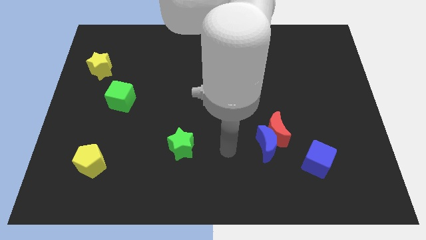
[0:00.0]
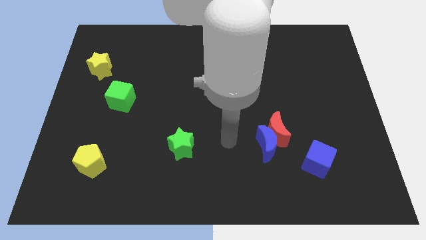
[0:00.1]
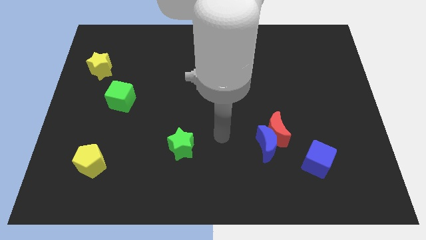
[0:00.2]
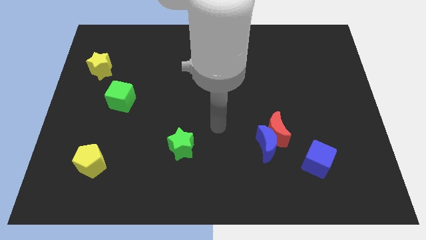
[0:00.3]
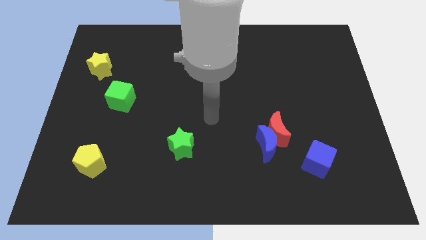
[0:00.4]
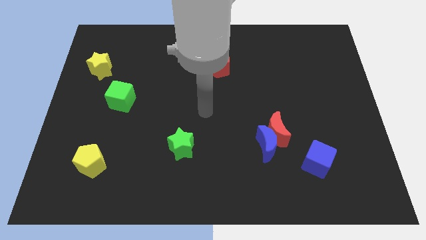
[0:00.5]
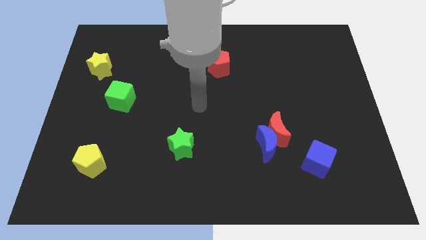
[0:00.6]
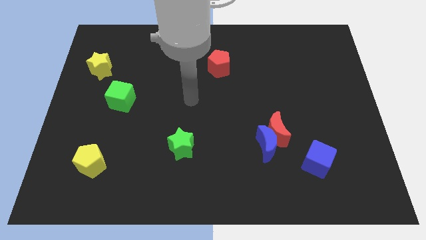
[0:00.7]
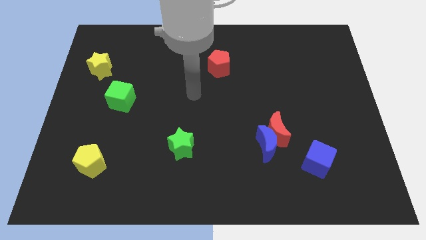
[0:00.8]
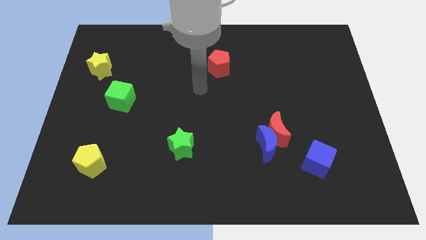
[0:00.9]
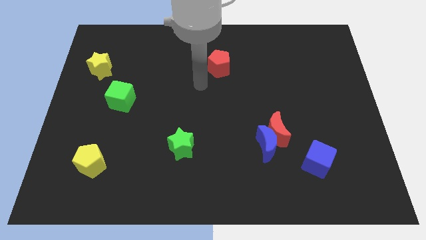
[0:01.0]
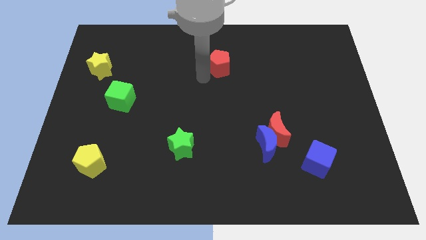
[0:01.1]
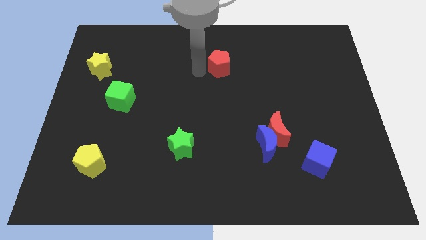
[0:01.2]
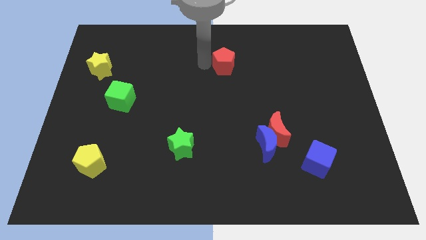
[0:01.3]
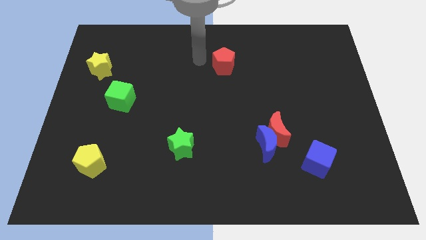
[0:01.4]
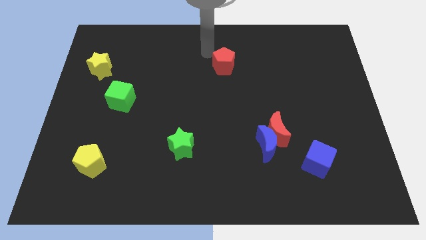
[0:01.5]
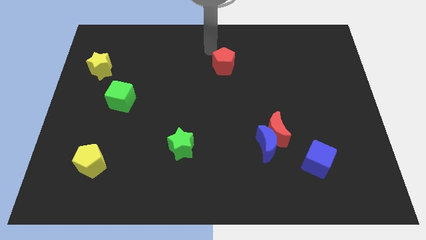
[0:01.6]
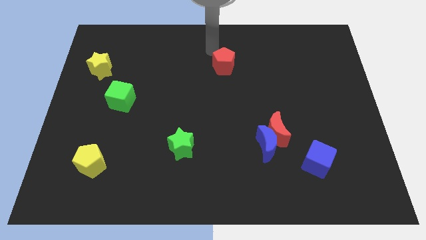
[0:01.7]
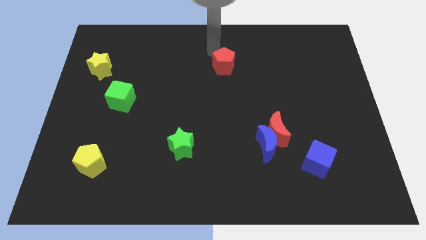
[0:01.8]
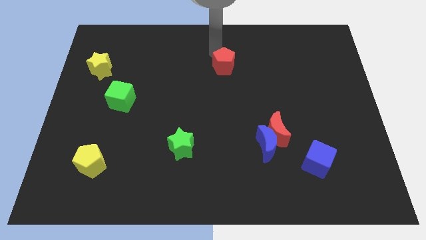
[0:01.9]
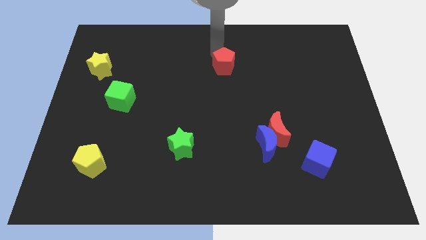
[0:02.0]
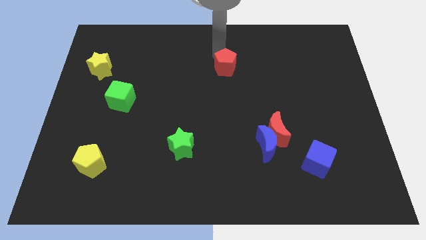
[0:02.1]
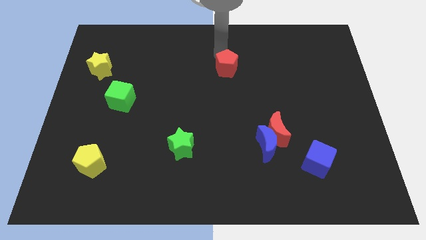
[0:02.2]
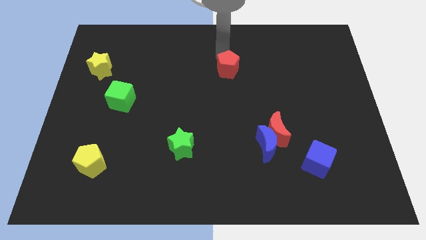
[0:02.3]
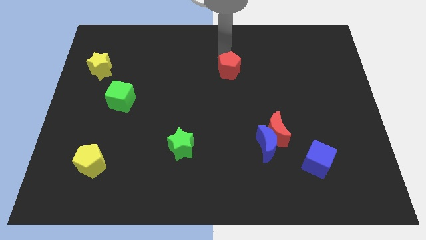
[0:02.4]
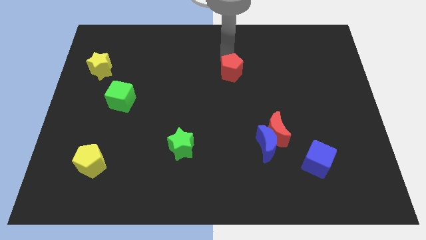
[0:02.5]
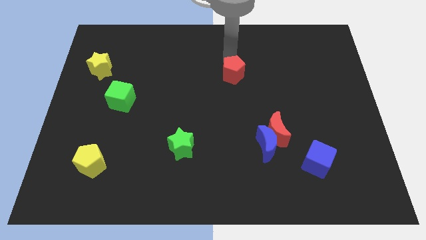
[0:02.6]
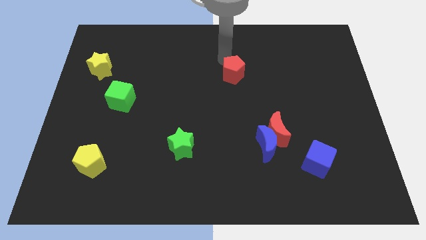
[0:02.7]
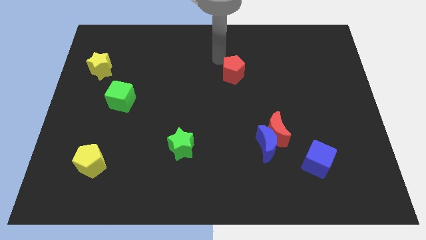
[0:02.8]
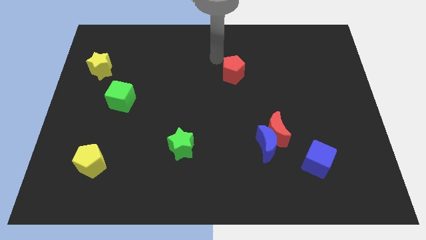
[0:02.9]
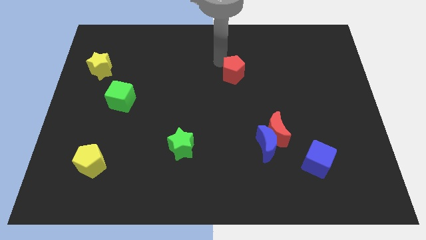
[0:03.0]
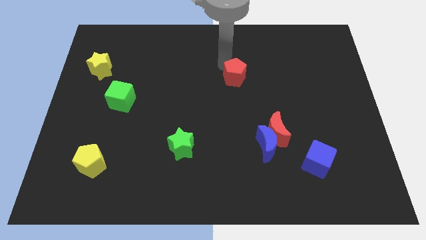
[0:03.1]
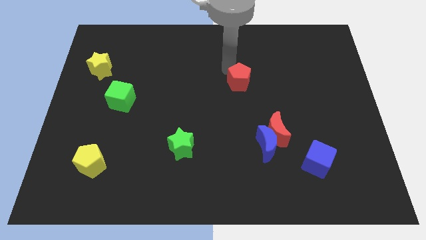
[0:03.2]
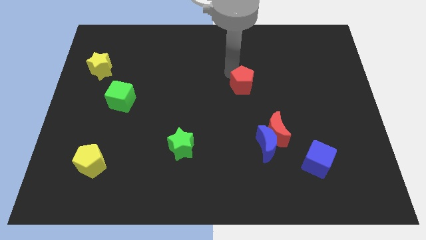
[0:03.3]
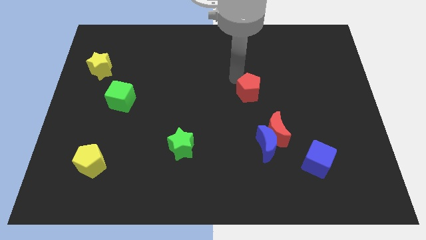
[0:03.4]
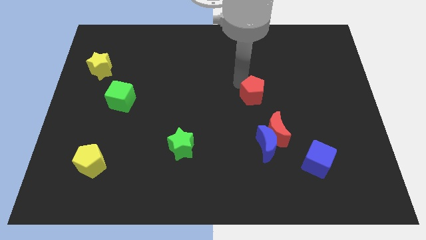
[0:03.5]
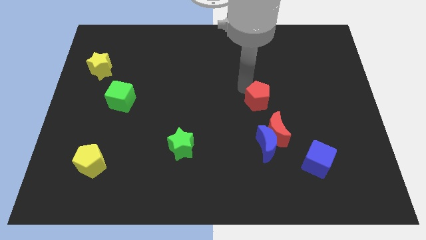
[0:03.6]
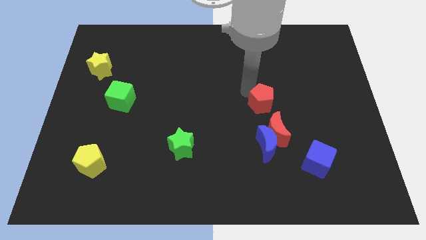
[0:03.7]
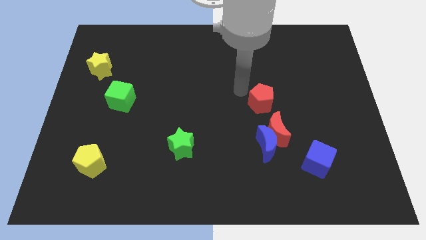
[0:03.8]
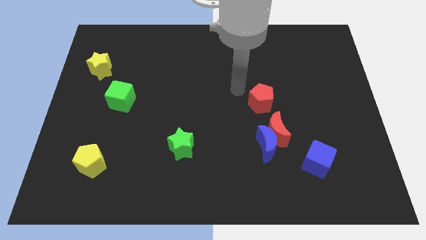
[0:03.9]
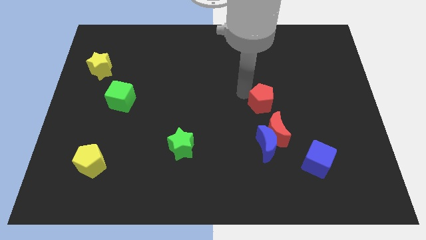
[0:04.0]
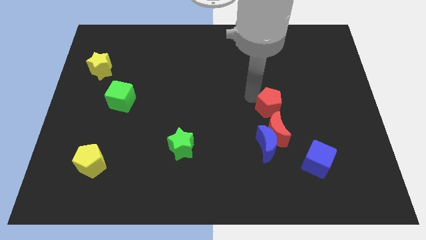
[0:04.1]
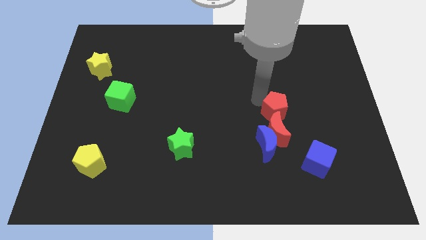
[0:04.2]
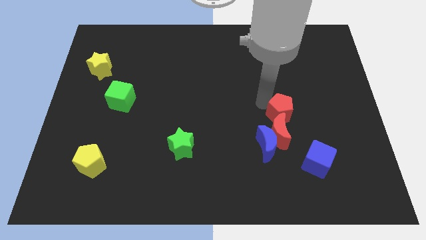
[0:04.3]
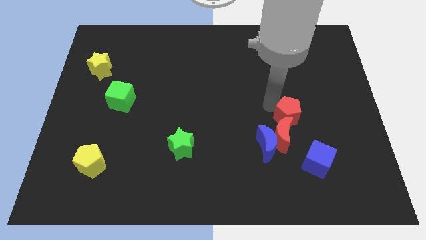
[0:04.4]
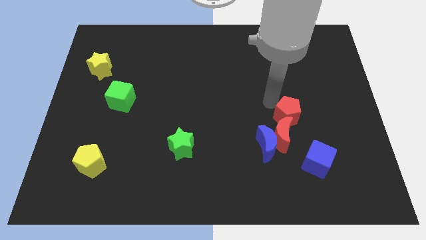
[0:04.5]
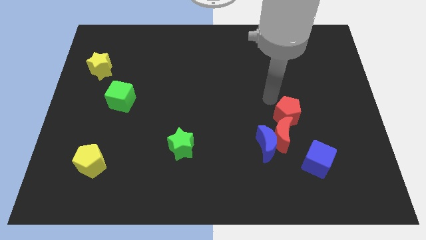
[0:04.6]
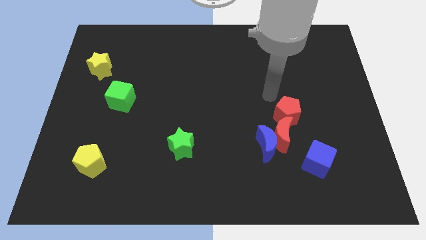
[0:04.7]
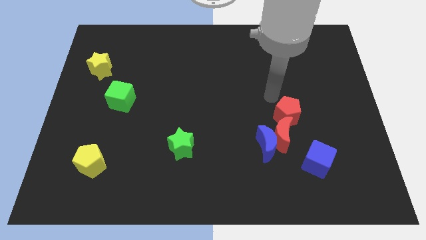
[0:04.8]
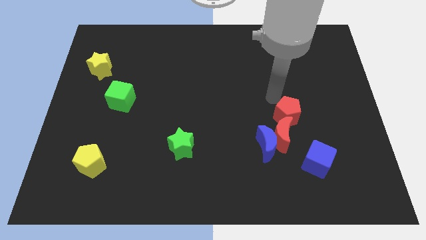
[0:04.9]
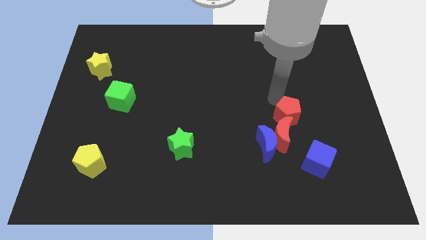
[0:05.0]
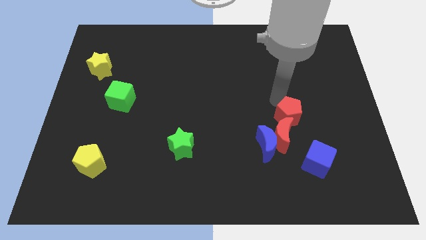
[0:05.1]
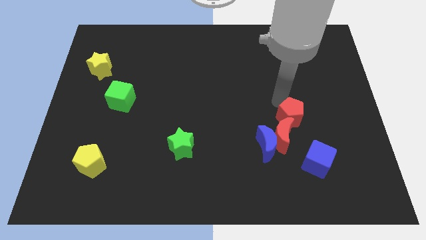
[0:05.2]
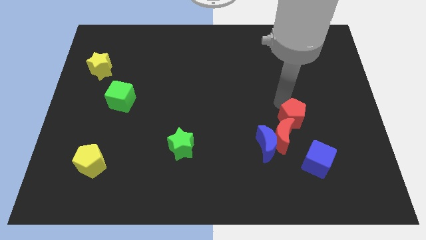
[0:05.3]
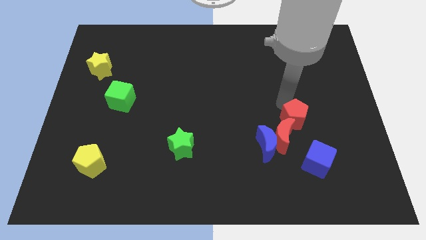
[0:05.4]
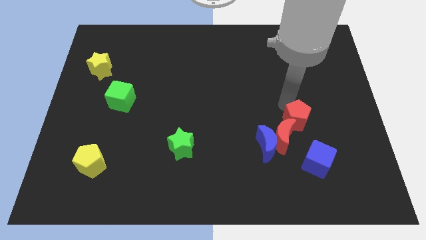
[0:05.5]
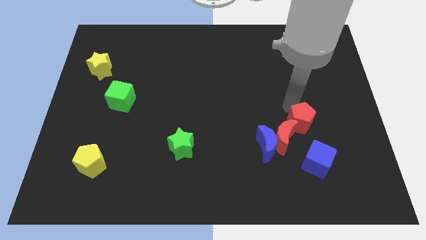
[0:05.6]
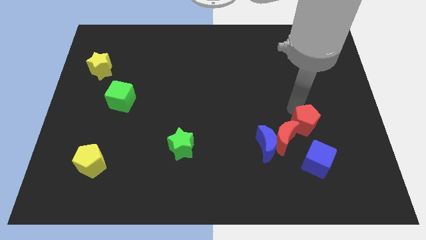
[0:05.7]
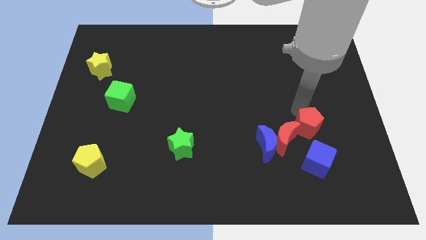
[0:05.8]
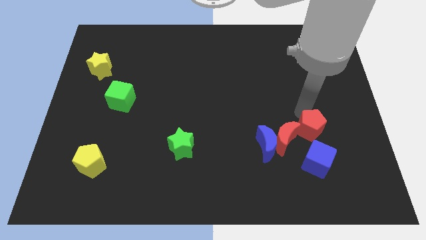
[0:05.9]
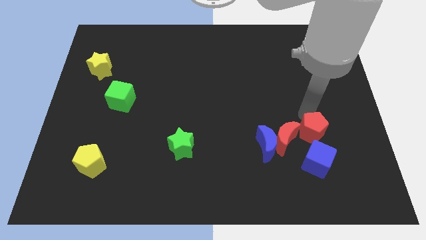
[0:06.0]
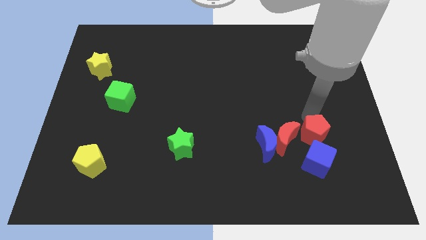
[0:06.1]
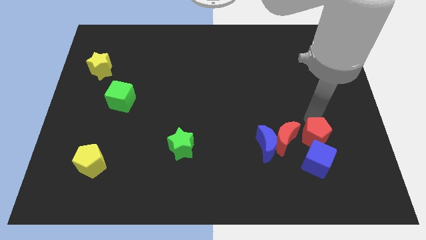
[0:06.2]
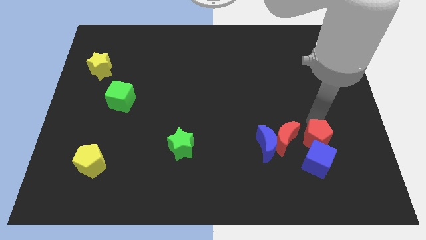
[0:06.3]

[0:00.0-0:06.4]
put the red pentagon close to the blue cube
